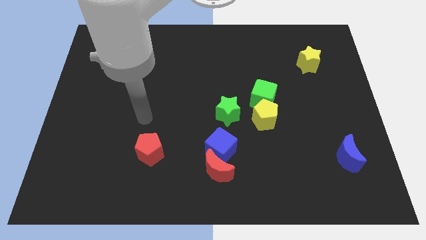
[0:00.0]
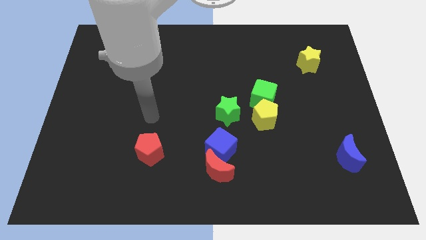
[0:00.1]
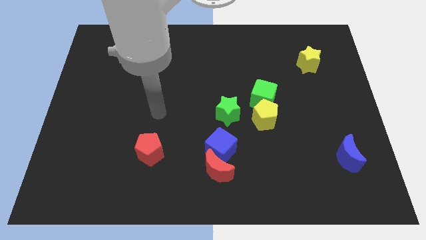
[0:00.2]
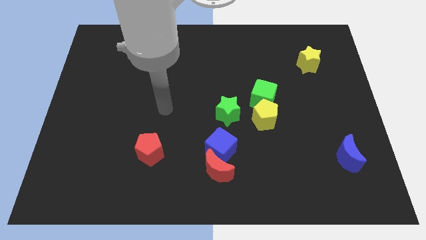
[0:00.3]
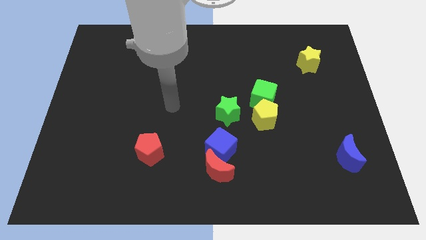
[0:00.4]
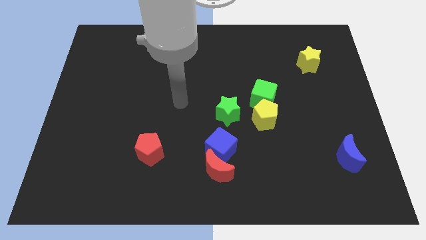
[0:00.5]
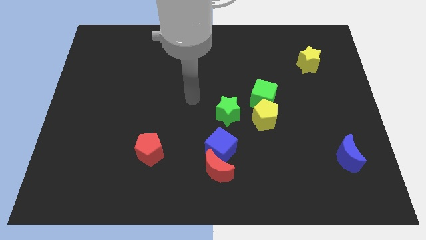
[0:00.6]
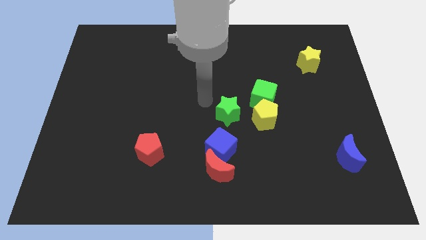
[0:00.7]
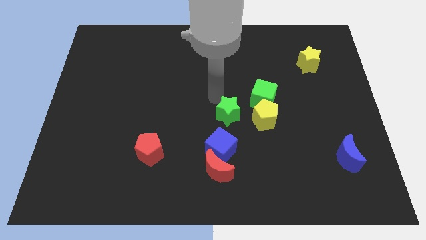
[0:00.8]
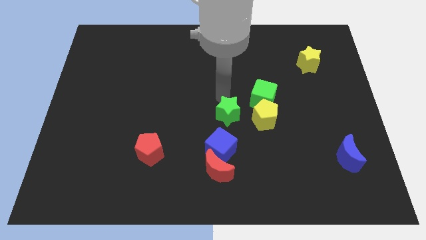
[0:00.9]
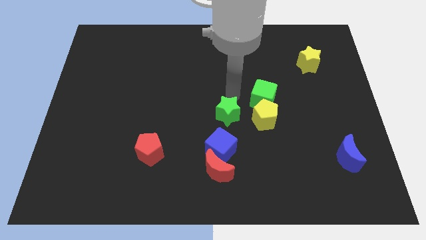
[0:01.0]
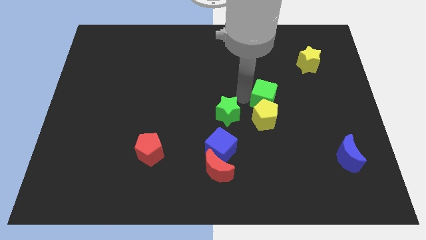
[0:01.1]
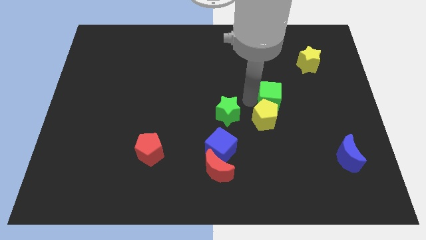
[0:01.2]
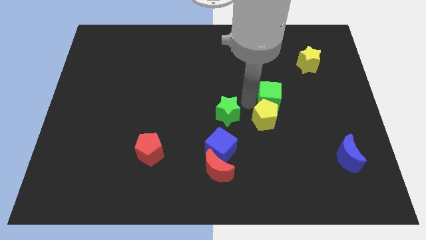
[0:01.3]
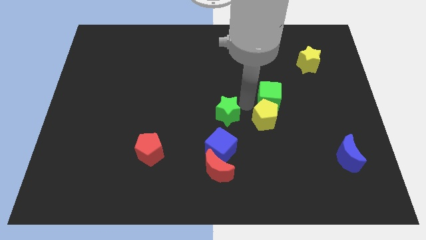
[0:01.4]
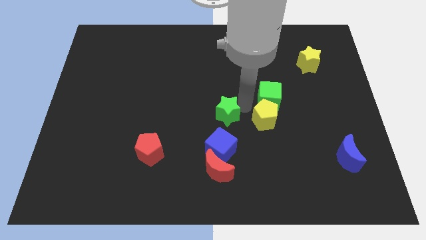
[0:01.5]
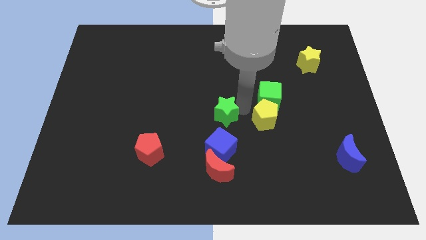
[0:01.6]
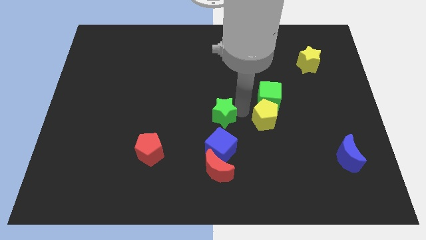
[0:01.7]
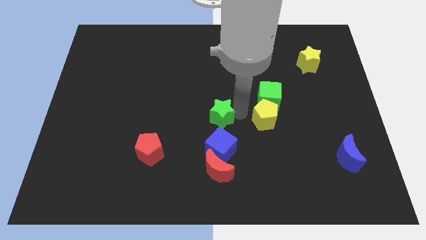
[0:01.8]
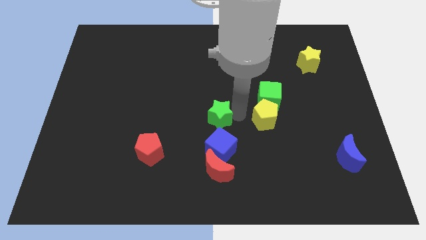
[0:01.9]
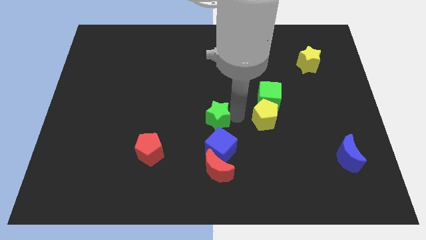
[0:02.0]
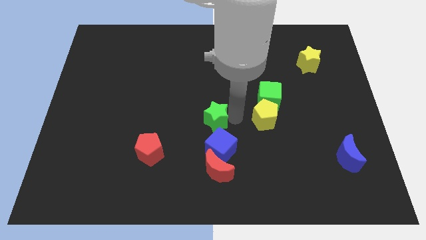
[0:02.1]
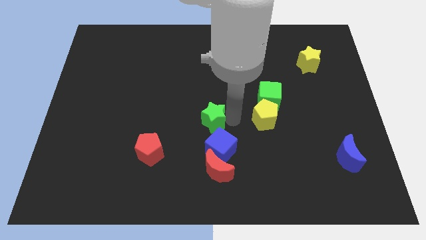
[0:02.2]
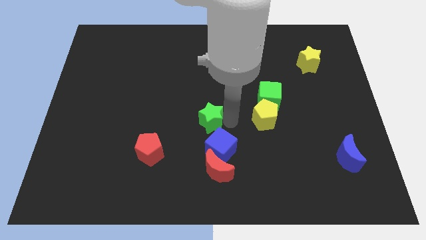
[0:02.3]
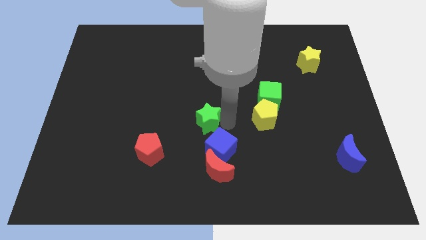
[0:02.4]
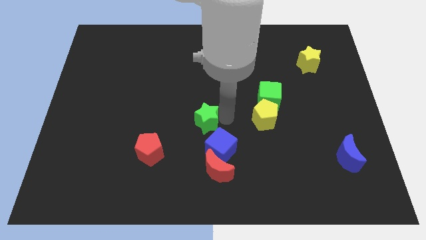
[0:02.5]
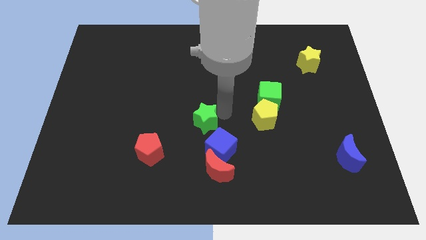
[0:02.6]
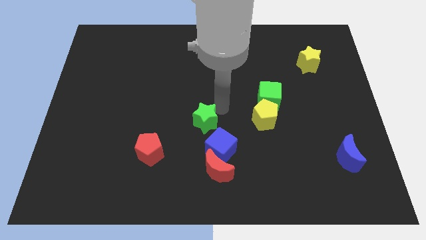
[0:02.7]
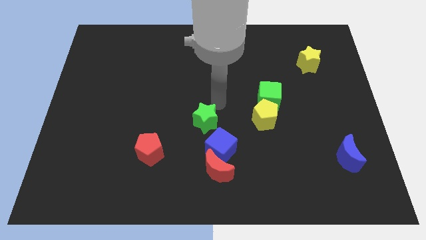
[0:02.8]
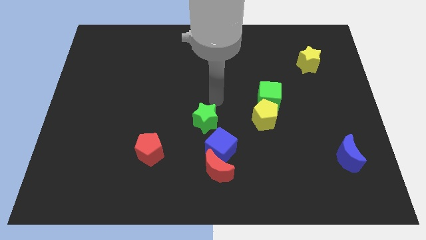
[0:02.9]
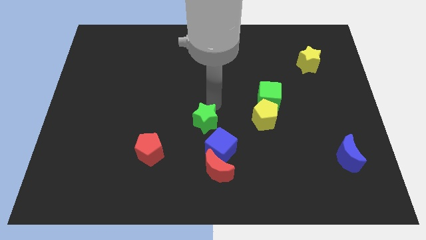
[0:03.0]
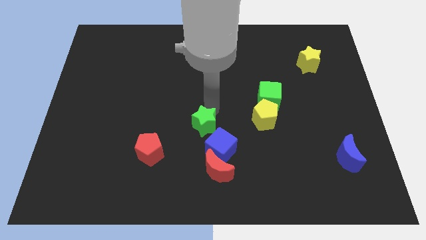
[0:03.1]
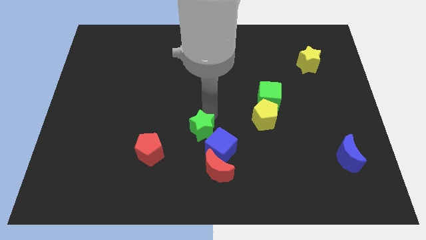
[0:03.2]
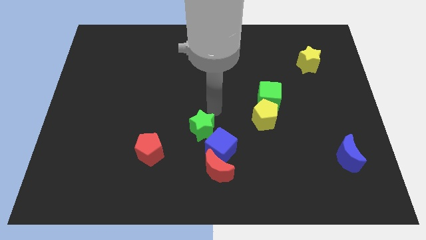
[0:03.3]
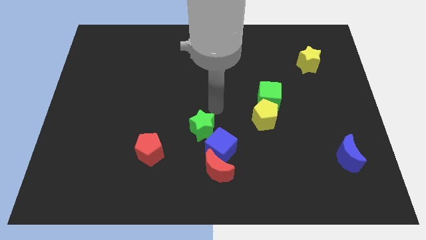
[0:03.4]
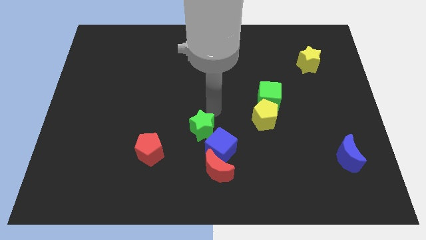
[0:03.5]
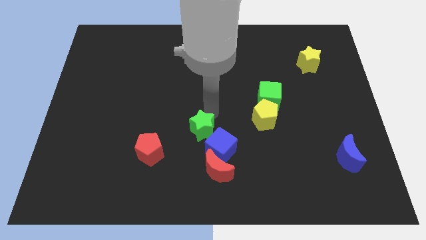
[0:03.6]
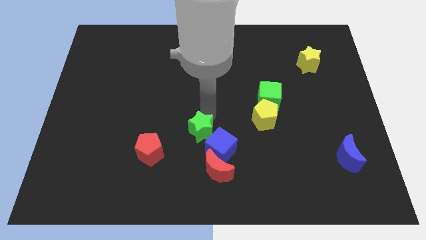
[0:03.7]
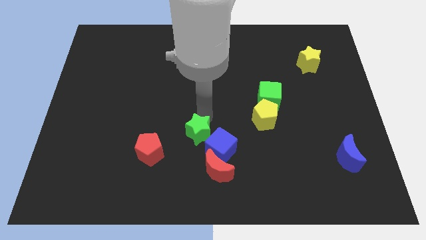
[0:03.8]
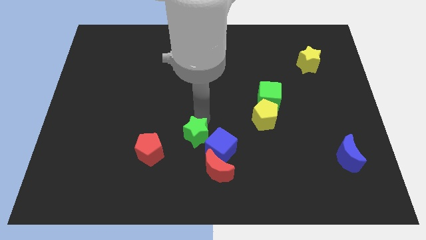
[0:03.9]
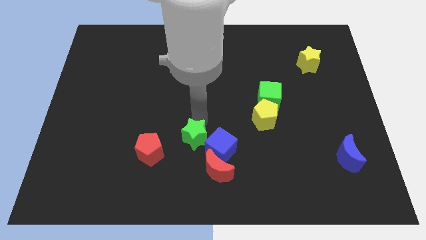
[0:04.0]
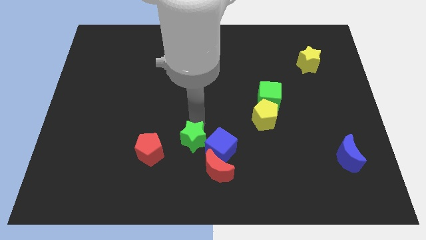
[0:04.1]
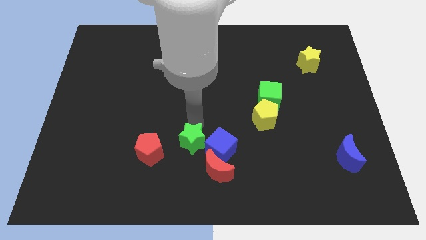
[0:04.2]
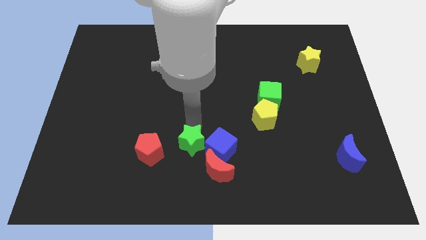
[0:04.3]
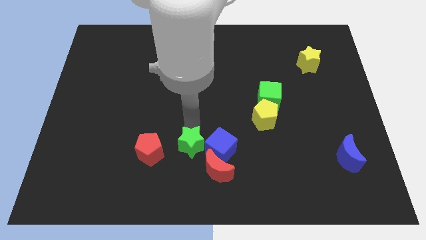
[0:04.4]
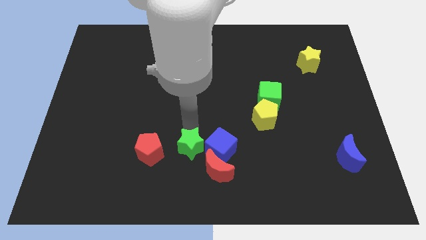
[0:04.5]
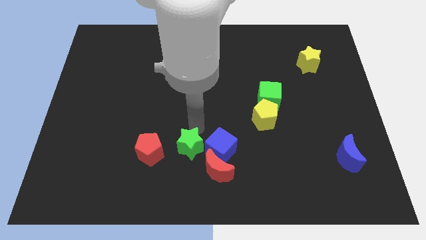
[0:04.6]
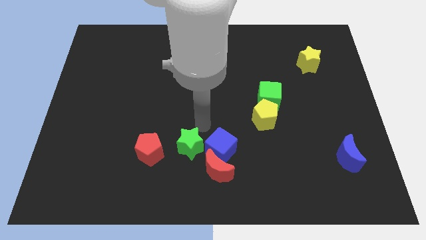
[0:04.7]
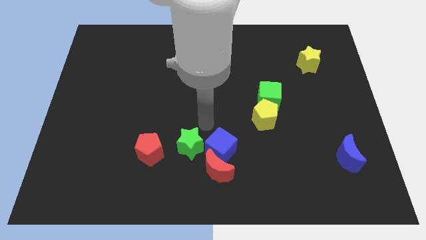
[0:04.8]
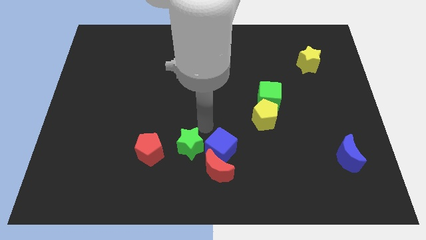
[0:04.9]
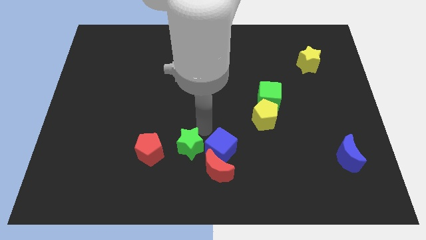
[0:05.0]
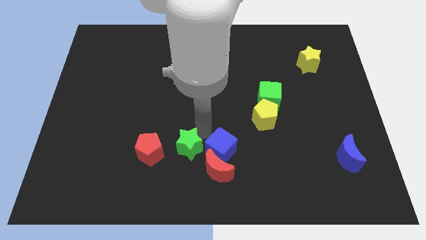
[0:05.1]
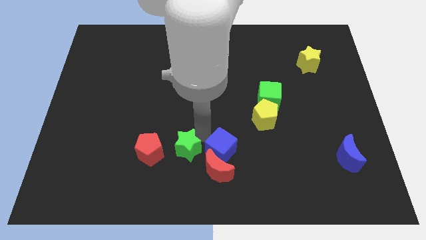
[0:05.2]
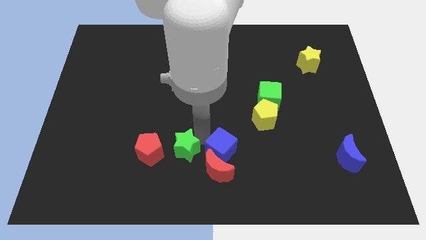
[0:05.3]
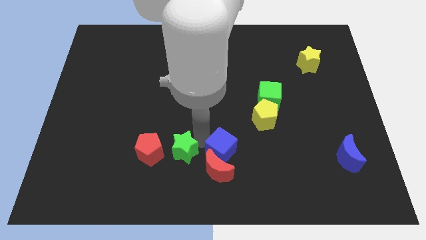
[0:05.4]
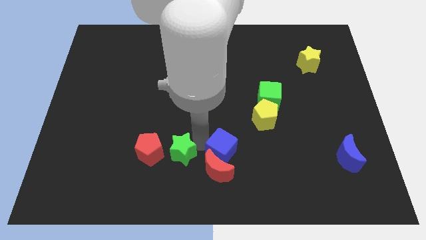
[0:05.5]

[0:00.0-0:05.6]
put the green star to the bottom right of the red pentagon

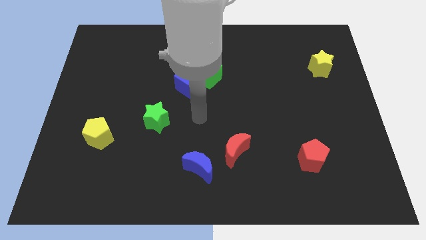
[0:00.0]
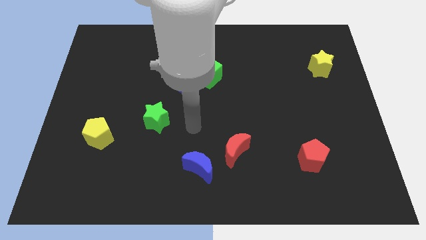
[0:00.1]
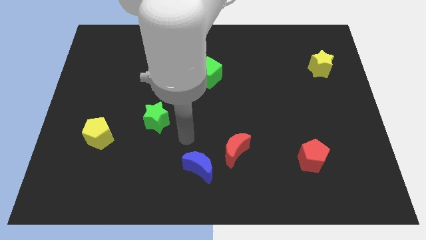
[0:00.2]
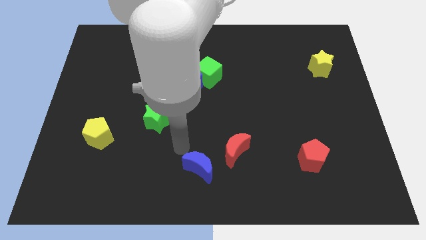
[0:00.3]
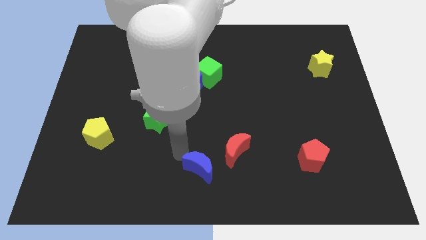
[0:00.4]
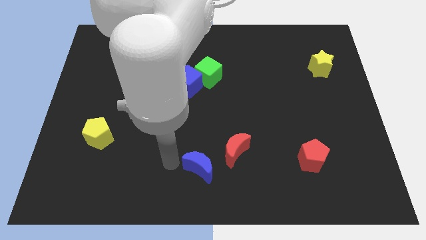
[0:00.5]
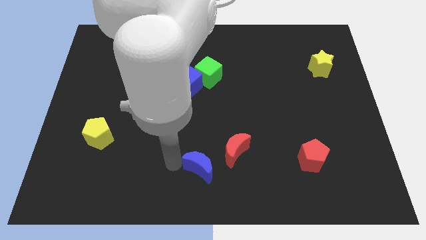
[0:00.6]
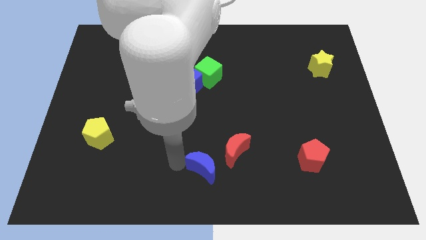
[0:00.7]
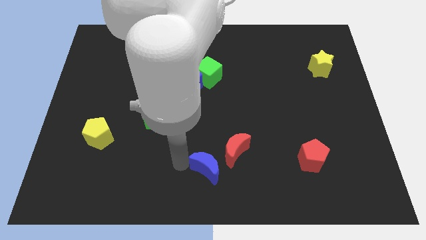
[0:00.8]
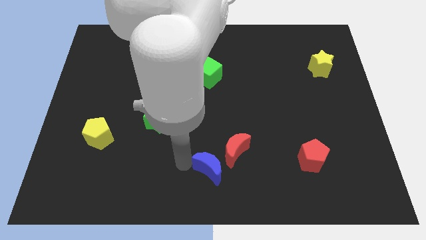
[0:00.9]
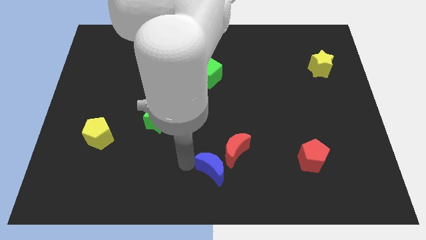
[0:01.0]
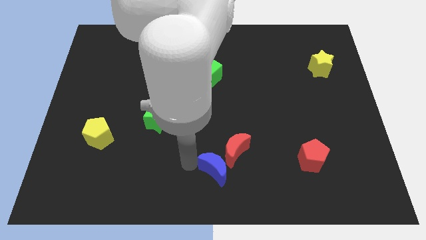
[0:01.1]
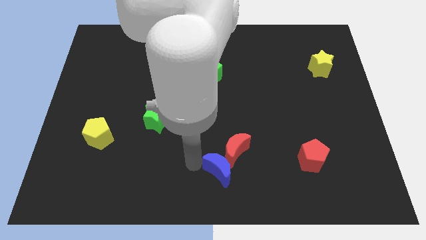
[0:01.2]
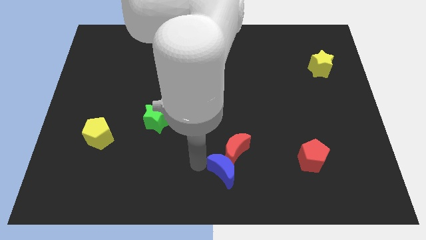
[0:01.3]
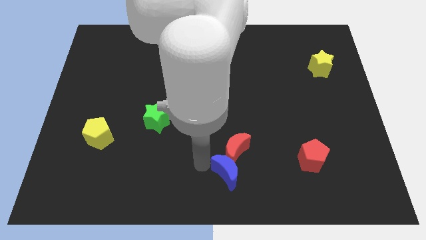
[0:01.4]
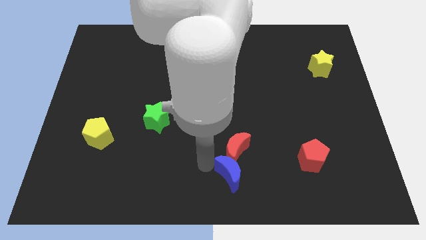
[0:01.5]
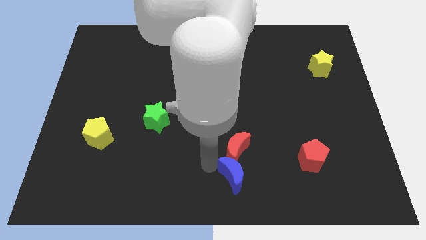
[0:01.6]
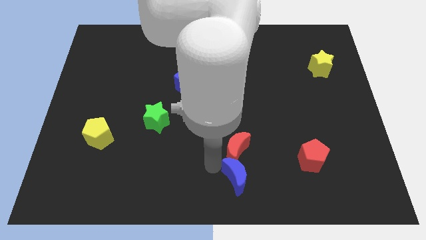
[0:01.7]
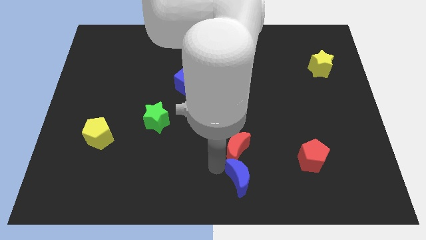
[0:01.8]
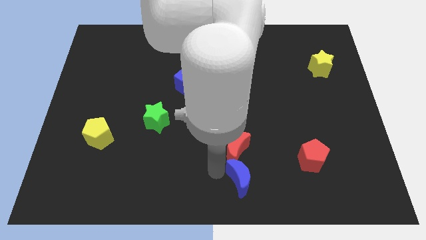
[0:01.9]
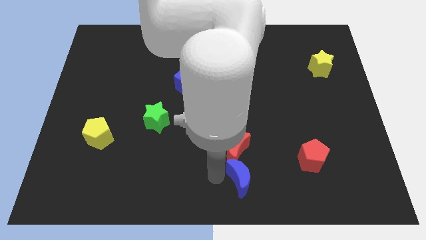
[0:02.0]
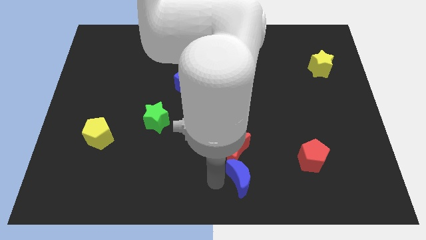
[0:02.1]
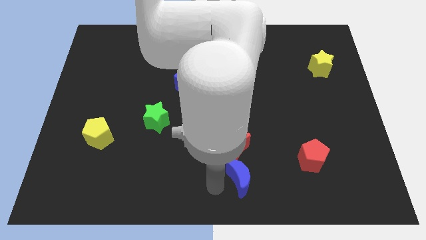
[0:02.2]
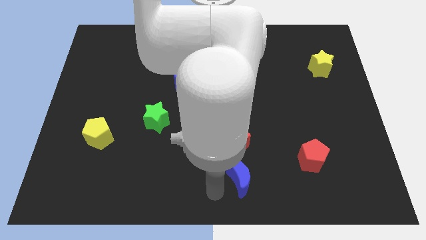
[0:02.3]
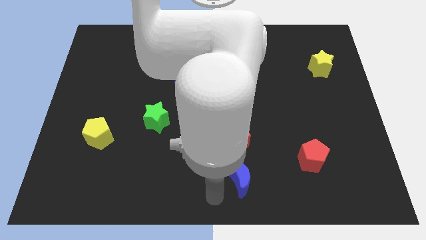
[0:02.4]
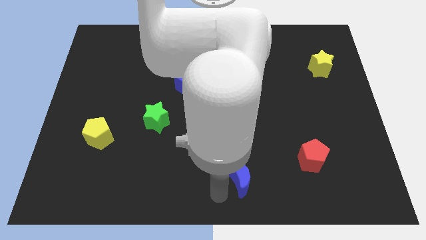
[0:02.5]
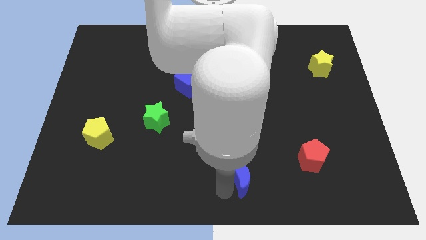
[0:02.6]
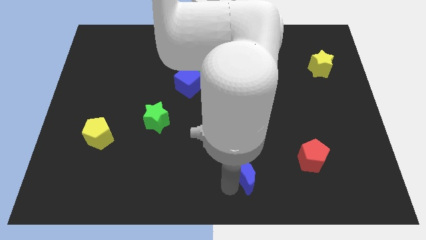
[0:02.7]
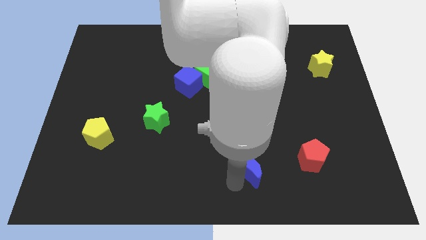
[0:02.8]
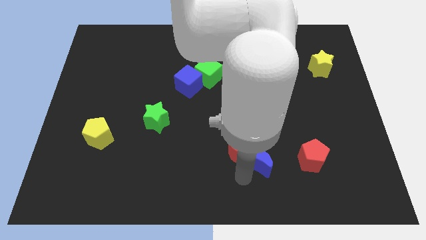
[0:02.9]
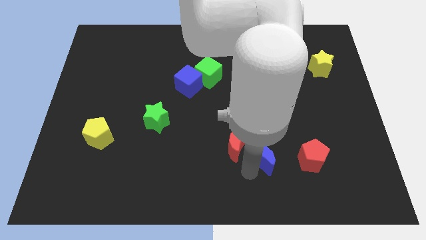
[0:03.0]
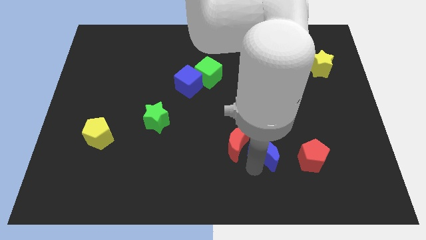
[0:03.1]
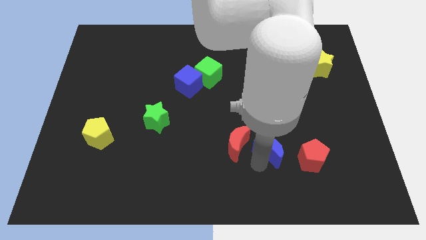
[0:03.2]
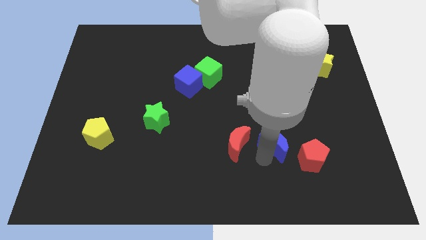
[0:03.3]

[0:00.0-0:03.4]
push the blue moon diagonally up and to the left of the red pentagon
